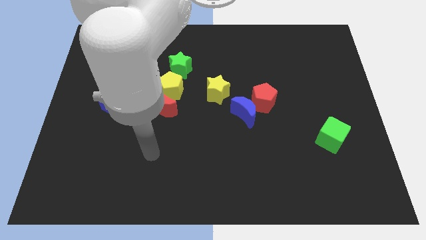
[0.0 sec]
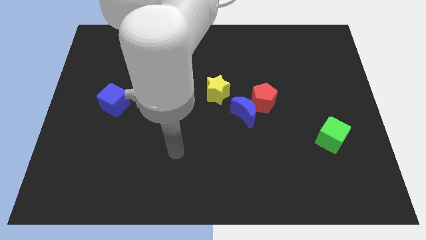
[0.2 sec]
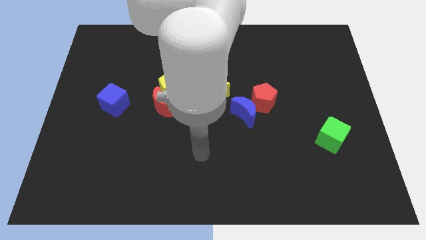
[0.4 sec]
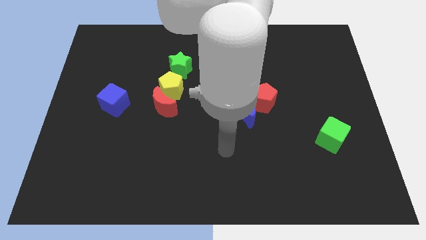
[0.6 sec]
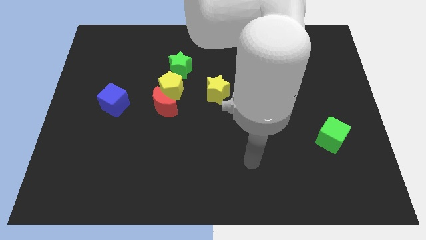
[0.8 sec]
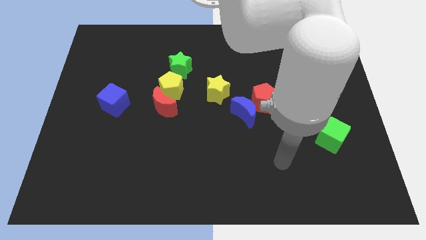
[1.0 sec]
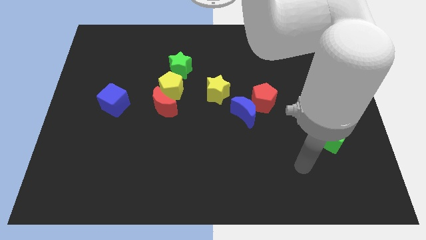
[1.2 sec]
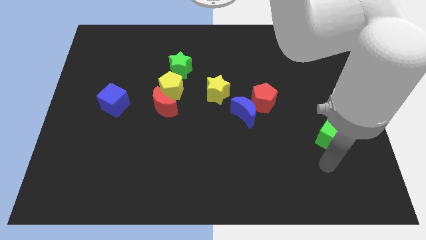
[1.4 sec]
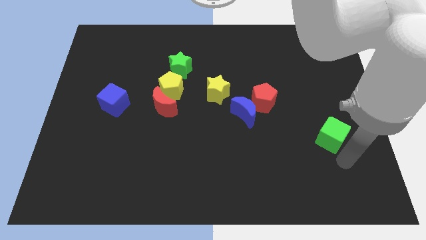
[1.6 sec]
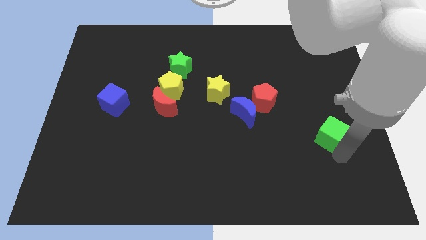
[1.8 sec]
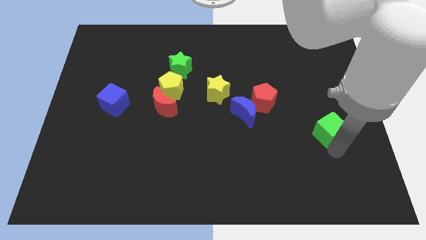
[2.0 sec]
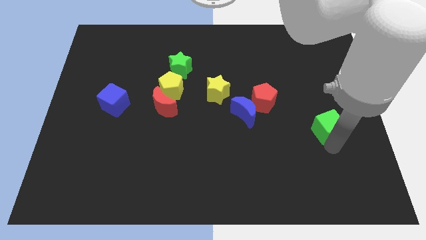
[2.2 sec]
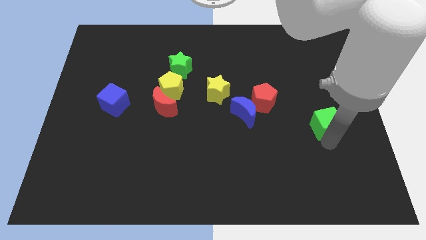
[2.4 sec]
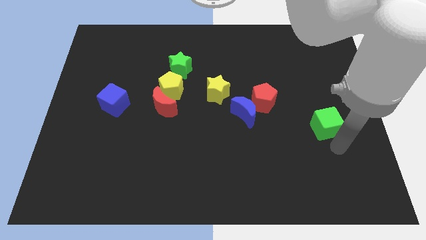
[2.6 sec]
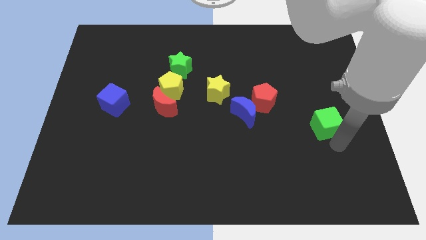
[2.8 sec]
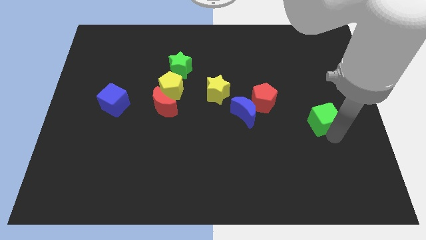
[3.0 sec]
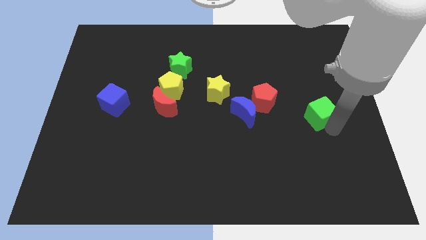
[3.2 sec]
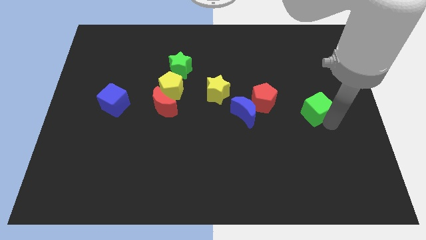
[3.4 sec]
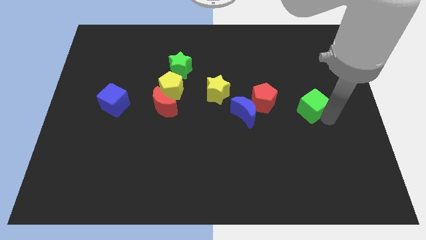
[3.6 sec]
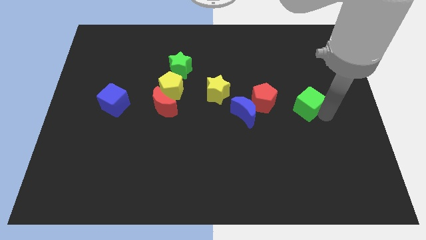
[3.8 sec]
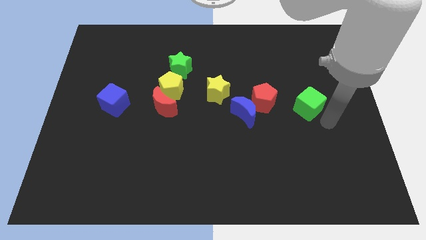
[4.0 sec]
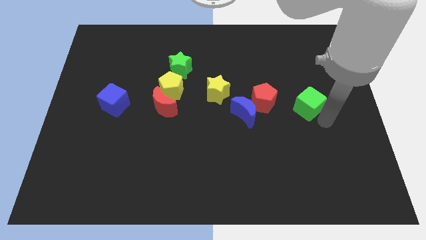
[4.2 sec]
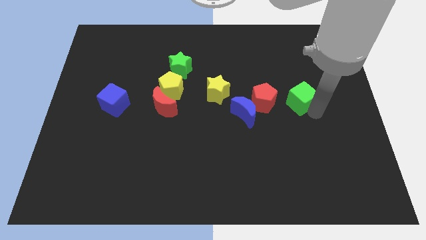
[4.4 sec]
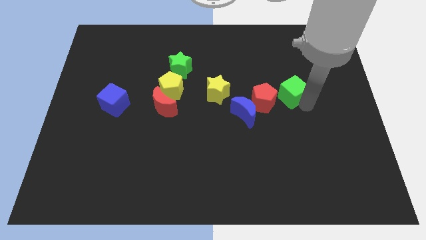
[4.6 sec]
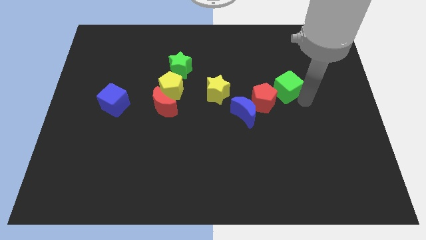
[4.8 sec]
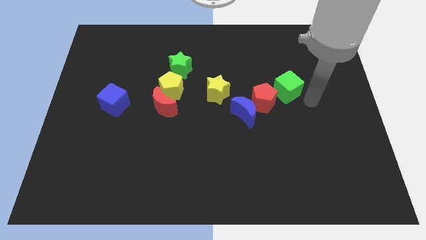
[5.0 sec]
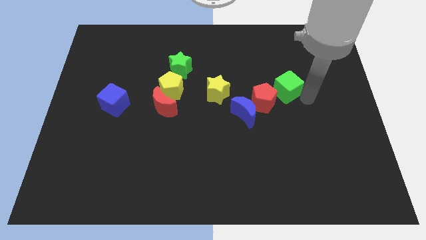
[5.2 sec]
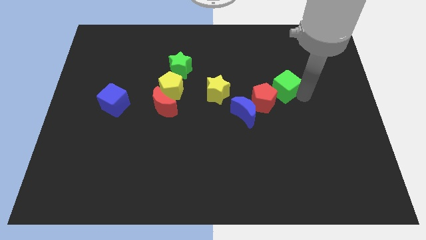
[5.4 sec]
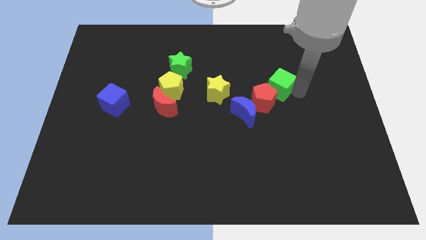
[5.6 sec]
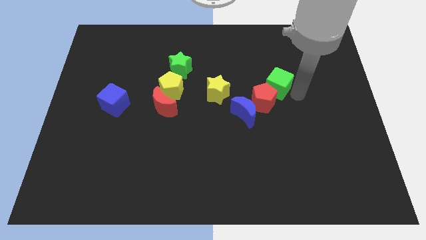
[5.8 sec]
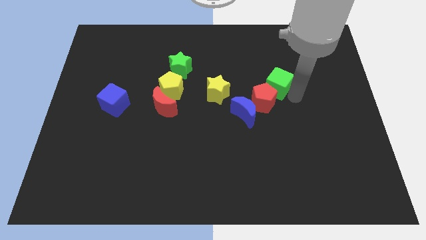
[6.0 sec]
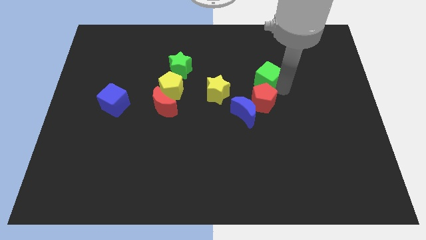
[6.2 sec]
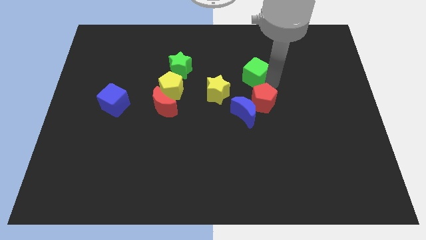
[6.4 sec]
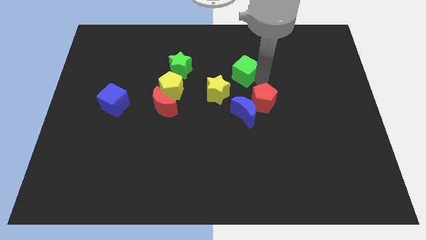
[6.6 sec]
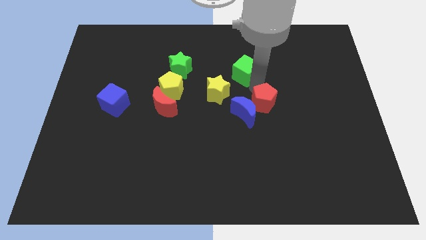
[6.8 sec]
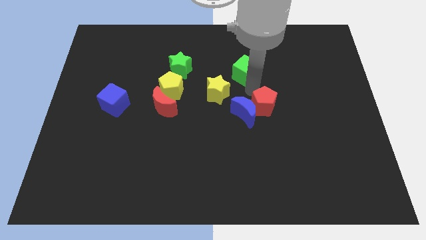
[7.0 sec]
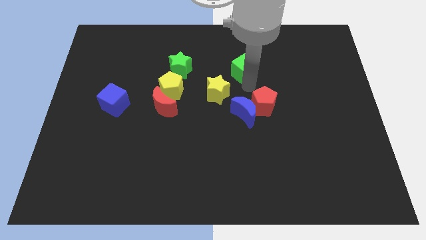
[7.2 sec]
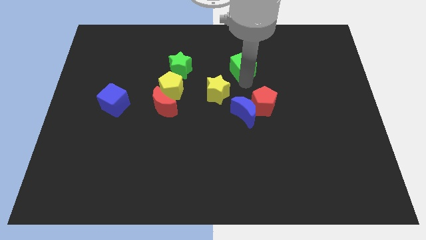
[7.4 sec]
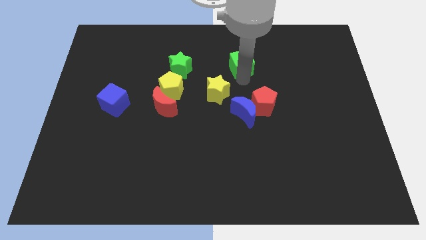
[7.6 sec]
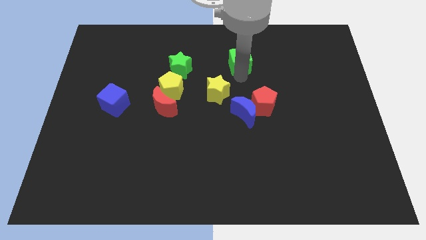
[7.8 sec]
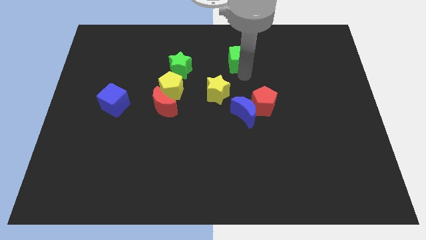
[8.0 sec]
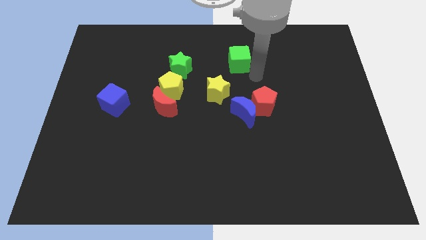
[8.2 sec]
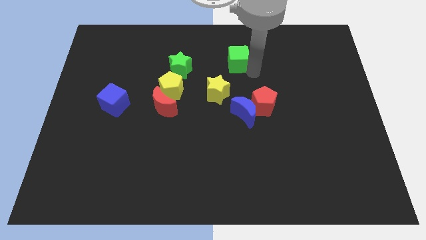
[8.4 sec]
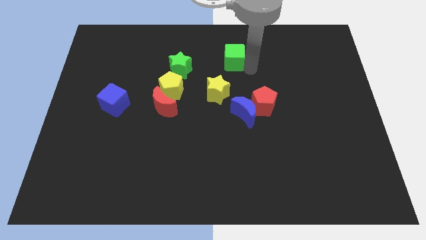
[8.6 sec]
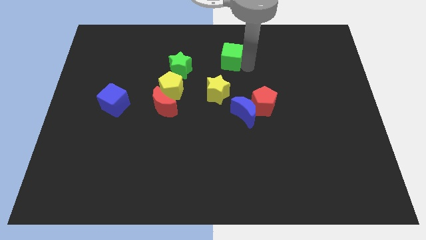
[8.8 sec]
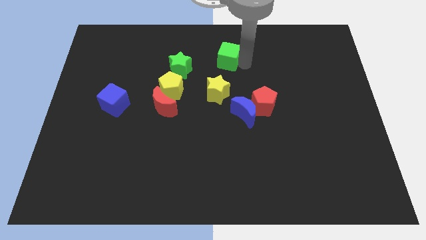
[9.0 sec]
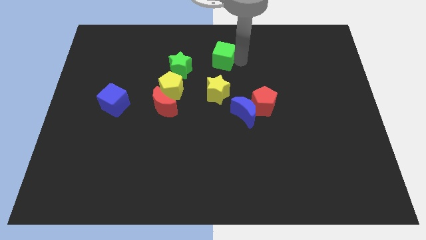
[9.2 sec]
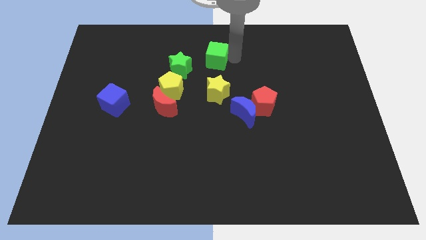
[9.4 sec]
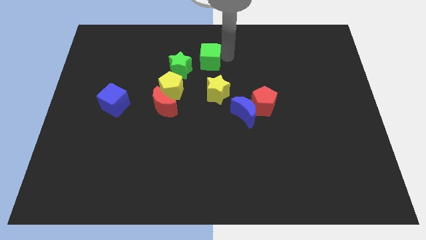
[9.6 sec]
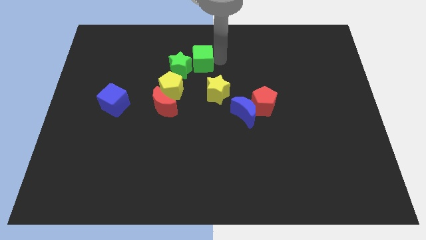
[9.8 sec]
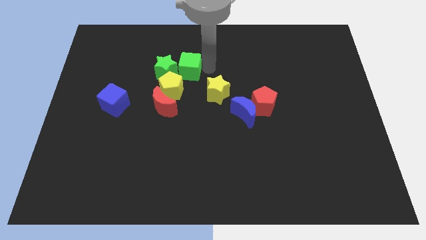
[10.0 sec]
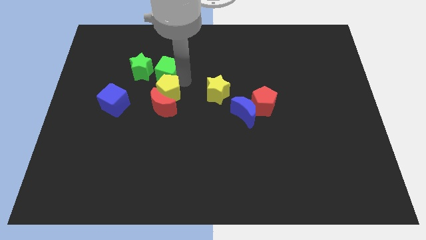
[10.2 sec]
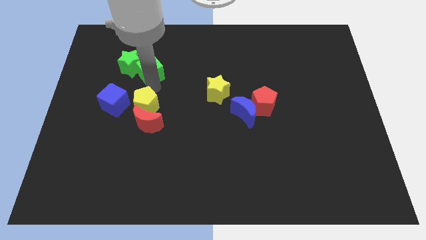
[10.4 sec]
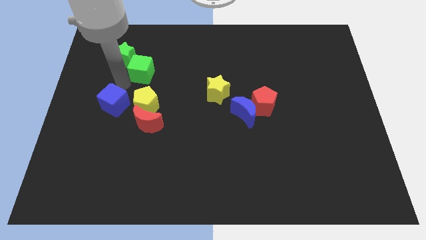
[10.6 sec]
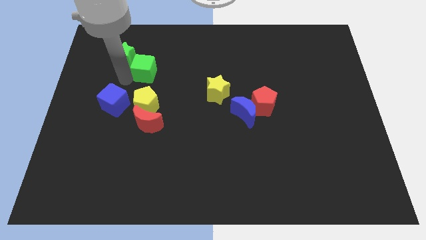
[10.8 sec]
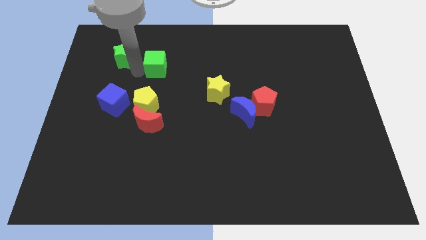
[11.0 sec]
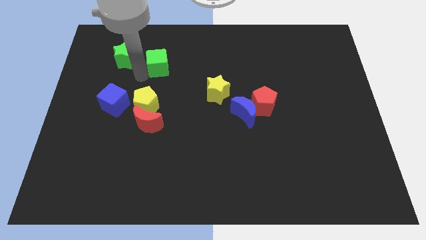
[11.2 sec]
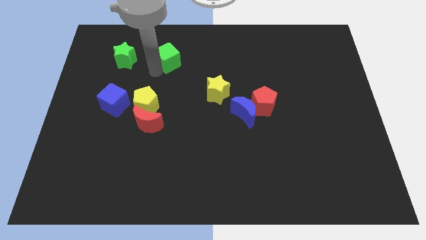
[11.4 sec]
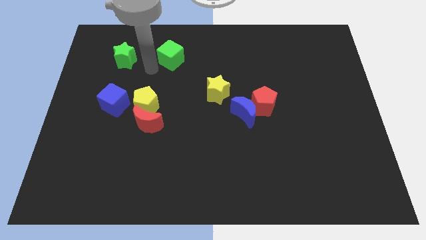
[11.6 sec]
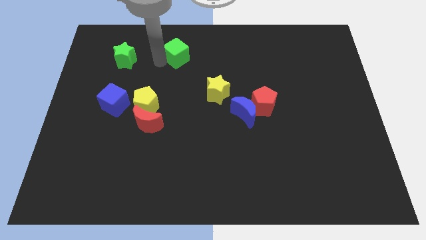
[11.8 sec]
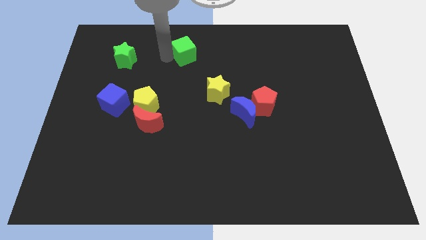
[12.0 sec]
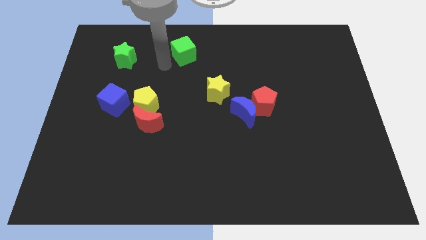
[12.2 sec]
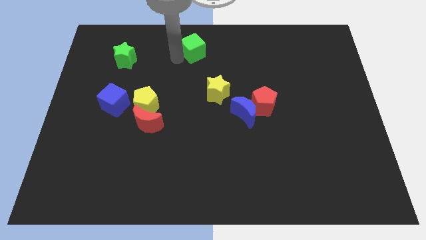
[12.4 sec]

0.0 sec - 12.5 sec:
push the green cube to the top side
